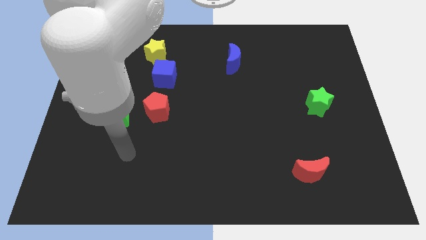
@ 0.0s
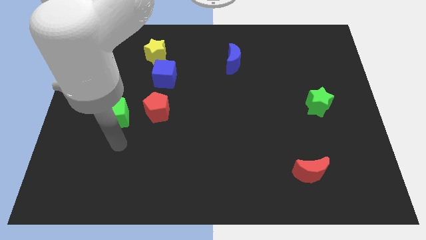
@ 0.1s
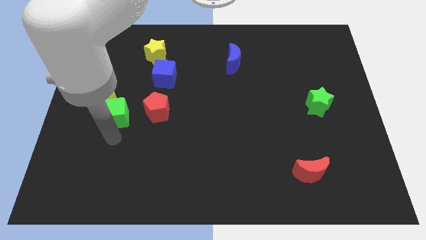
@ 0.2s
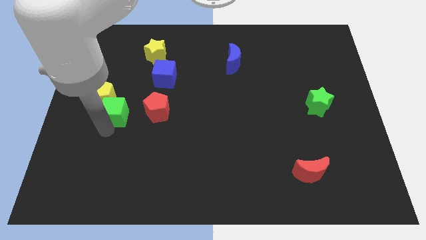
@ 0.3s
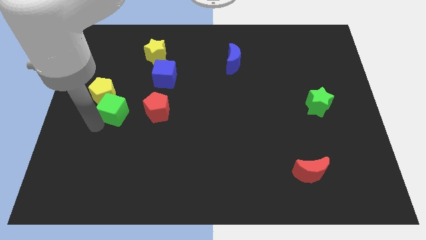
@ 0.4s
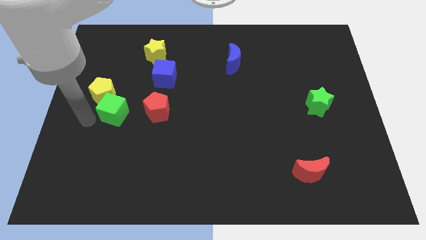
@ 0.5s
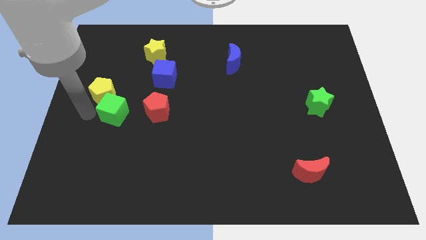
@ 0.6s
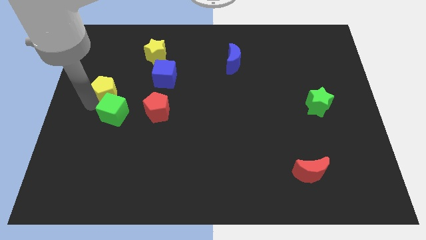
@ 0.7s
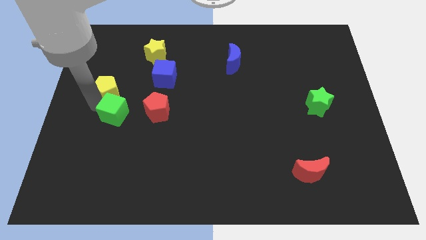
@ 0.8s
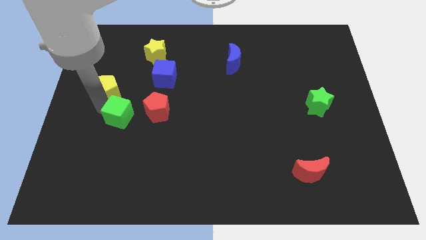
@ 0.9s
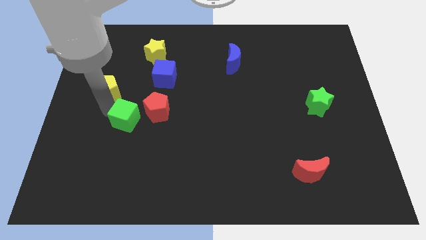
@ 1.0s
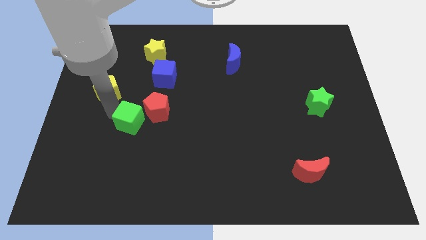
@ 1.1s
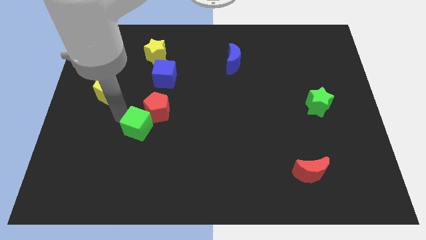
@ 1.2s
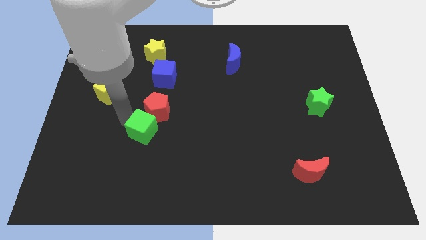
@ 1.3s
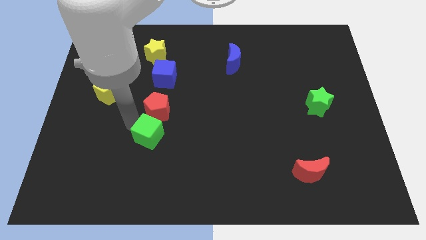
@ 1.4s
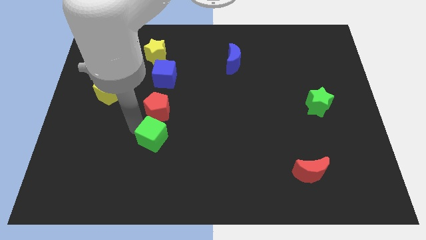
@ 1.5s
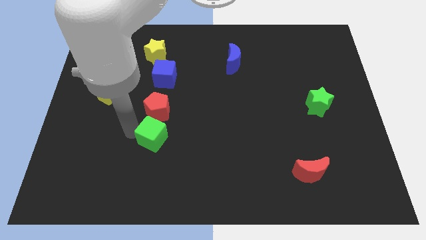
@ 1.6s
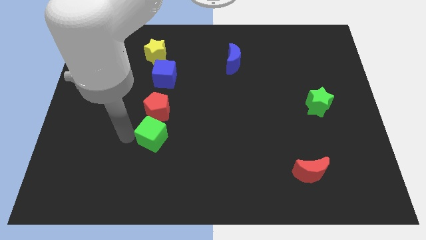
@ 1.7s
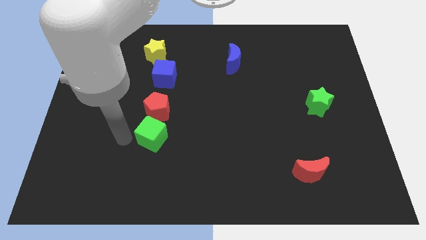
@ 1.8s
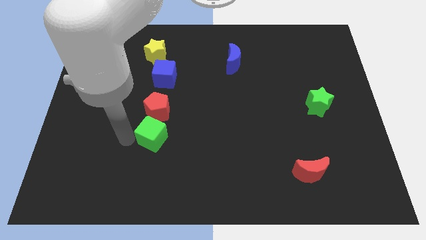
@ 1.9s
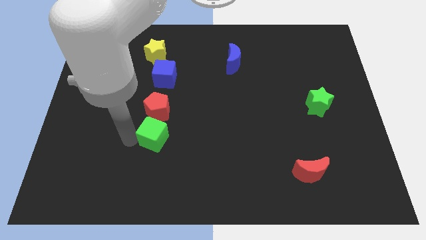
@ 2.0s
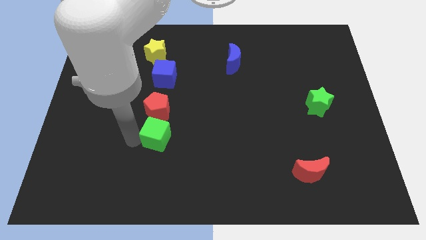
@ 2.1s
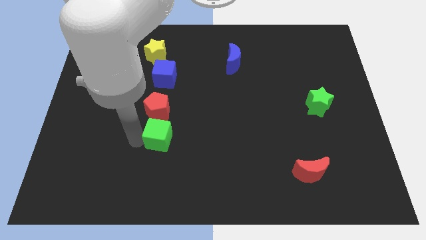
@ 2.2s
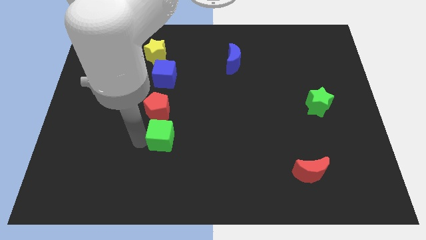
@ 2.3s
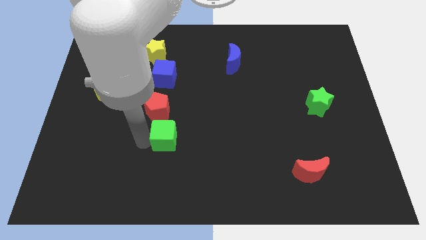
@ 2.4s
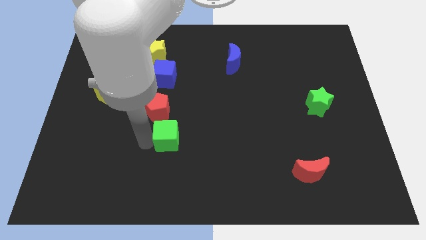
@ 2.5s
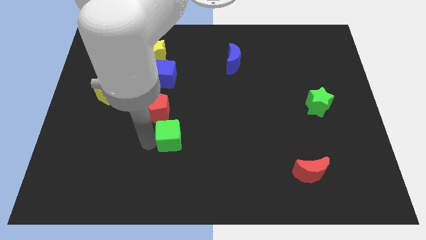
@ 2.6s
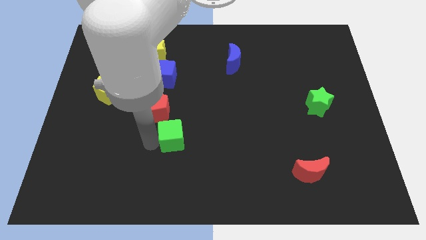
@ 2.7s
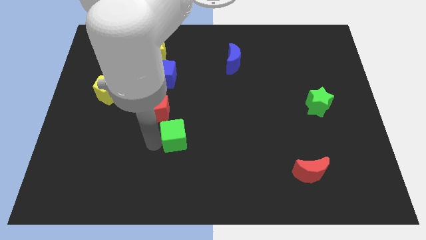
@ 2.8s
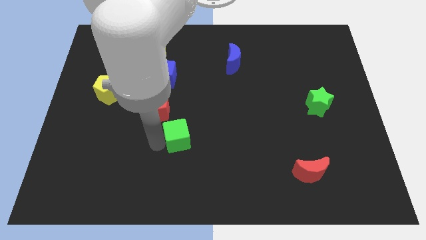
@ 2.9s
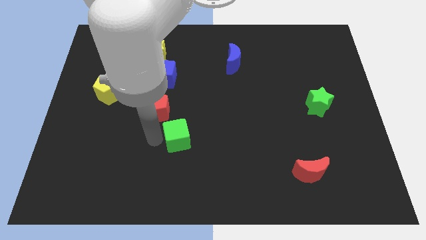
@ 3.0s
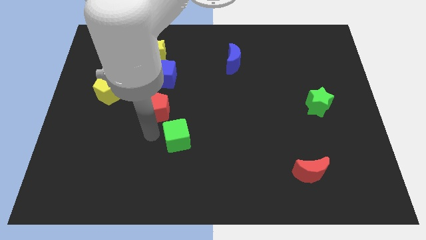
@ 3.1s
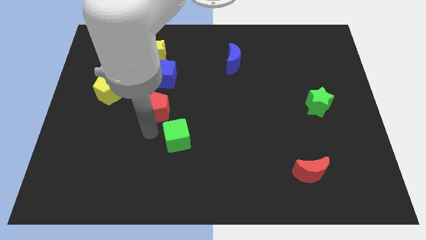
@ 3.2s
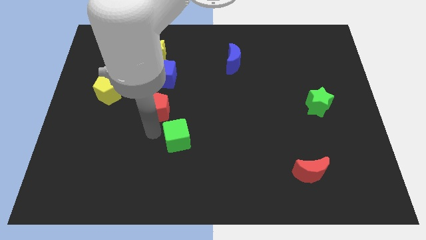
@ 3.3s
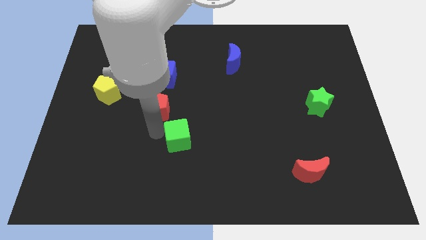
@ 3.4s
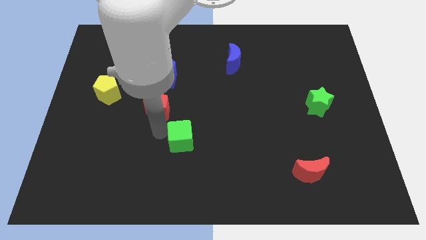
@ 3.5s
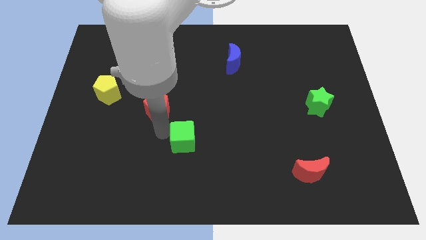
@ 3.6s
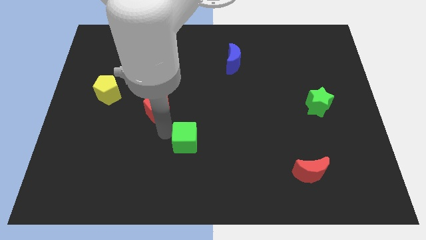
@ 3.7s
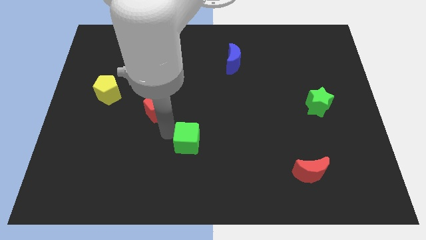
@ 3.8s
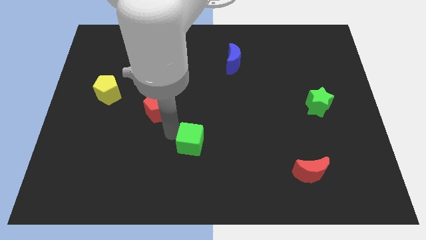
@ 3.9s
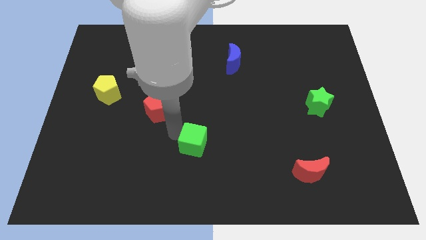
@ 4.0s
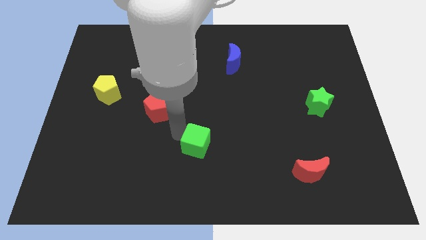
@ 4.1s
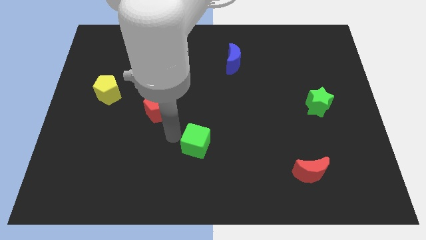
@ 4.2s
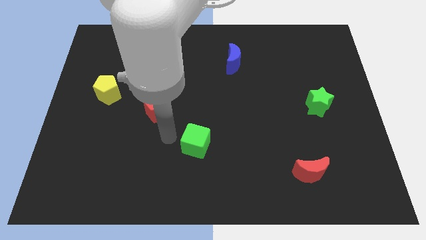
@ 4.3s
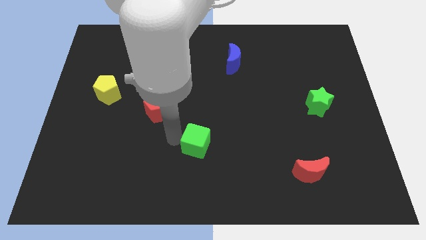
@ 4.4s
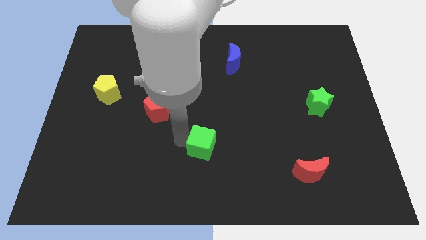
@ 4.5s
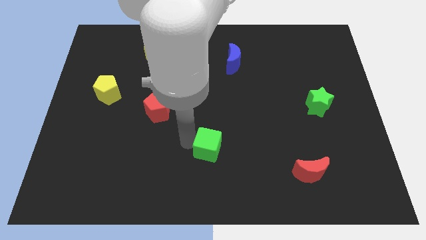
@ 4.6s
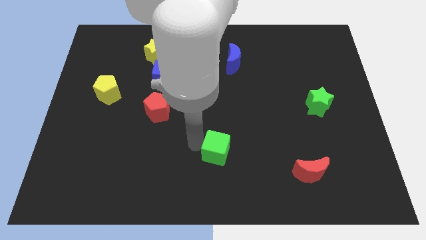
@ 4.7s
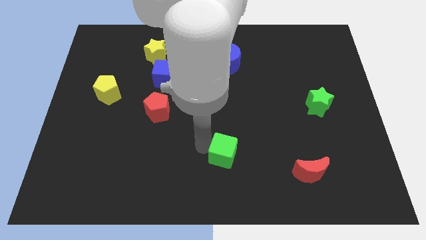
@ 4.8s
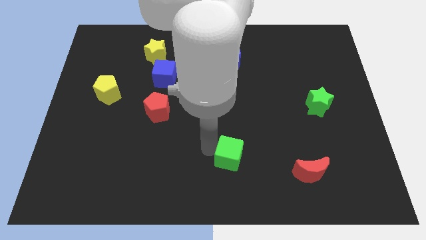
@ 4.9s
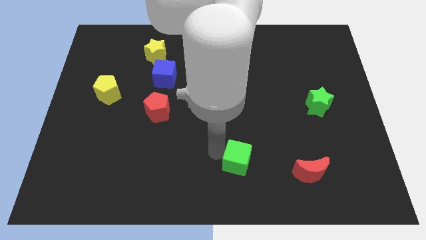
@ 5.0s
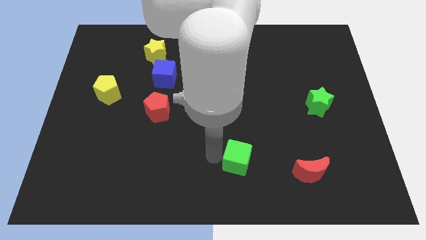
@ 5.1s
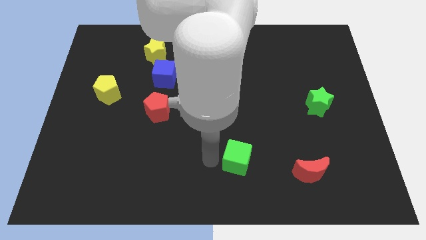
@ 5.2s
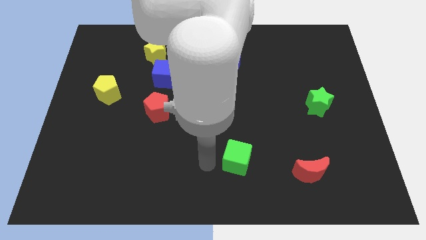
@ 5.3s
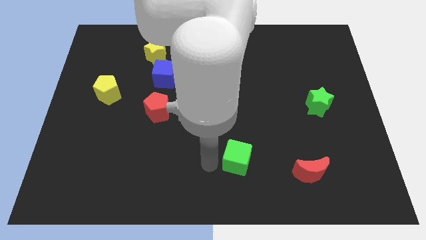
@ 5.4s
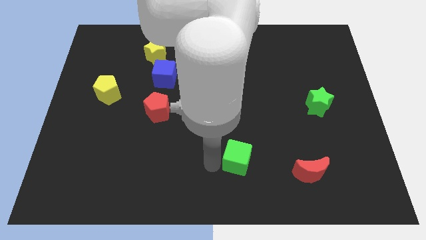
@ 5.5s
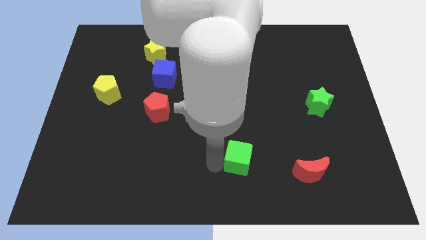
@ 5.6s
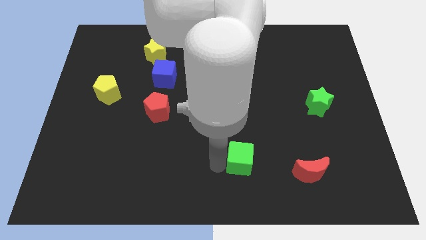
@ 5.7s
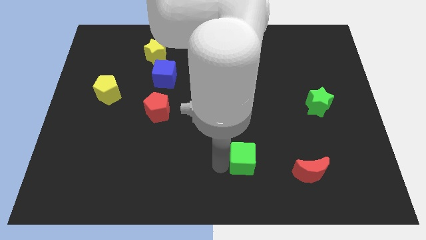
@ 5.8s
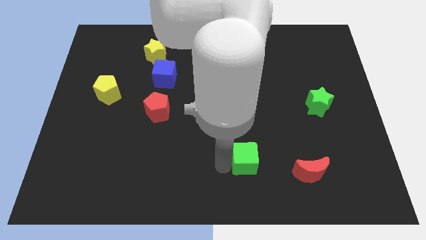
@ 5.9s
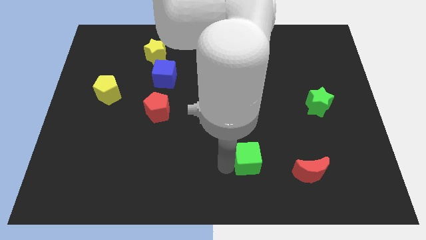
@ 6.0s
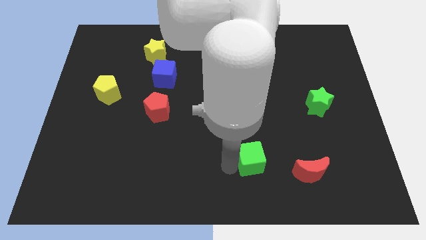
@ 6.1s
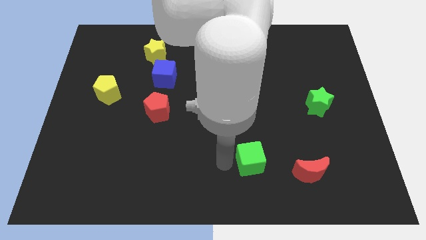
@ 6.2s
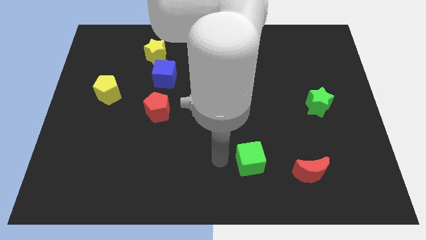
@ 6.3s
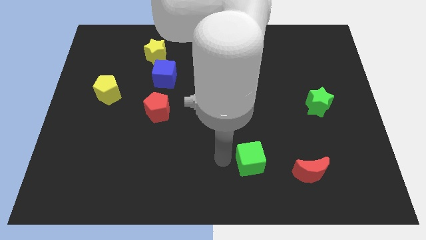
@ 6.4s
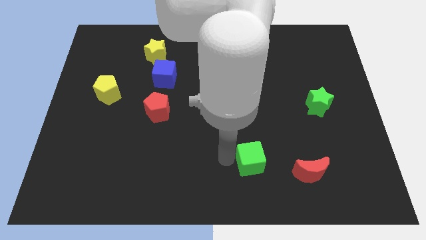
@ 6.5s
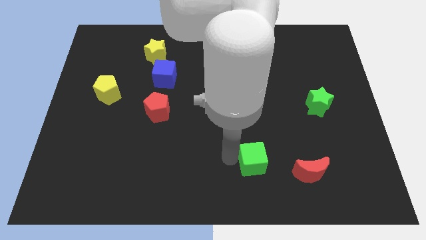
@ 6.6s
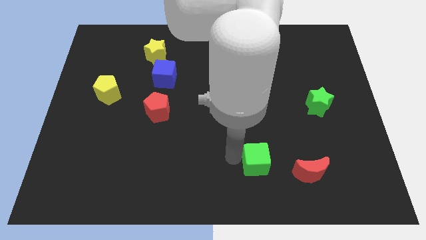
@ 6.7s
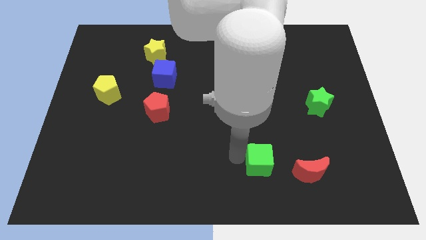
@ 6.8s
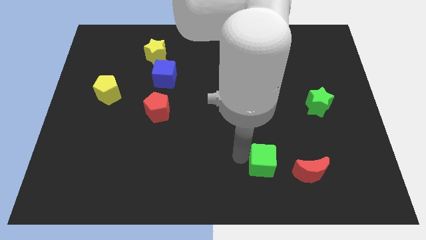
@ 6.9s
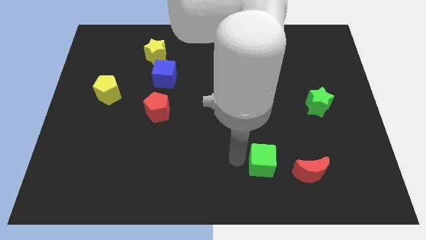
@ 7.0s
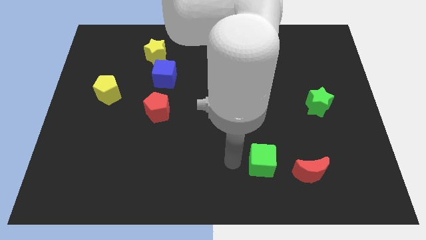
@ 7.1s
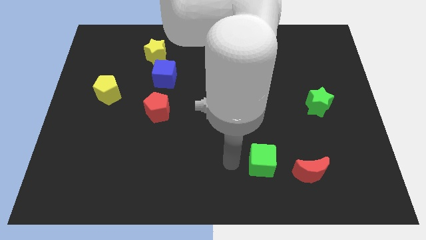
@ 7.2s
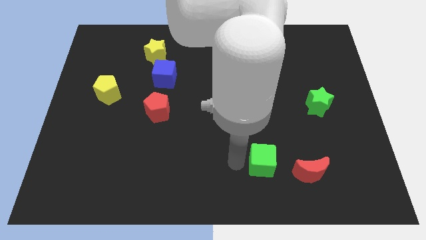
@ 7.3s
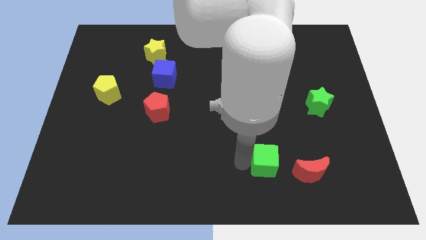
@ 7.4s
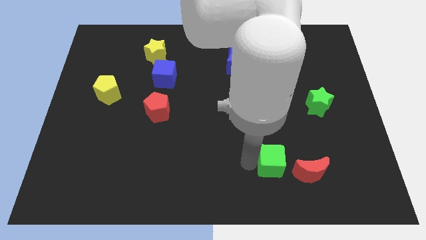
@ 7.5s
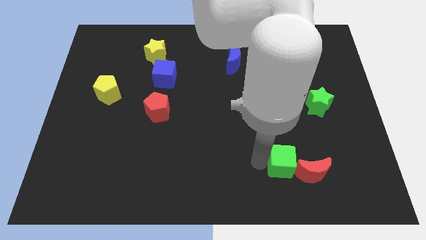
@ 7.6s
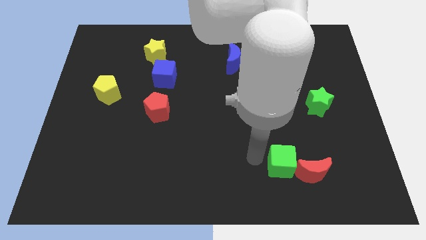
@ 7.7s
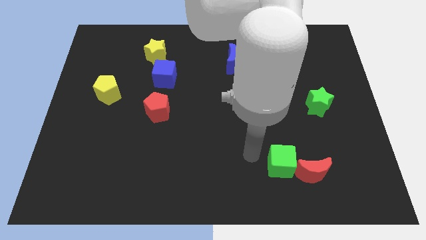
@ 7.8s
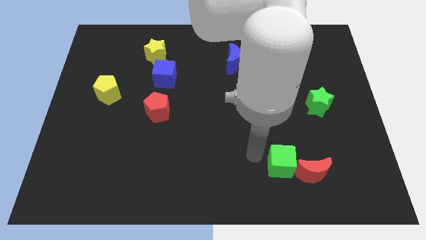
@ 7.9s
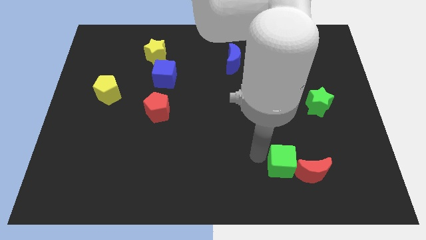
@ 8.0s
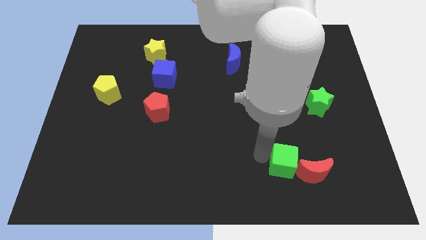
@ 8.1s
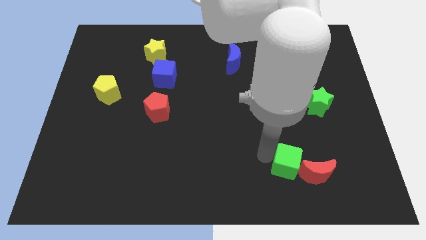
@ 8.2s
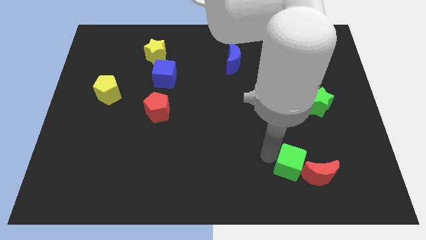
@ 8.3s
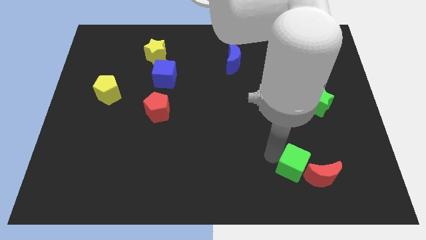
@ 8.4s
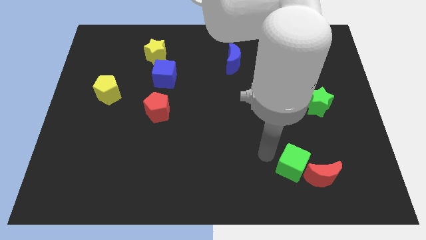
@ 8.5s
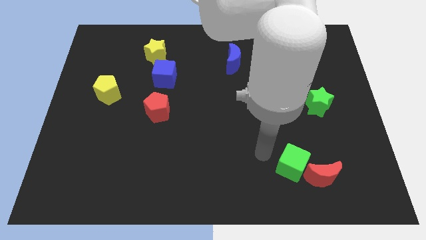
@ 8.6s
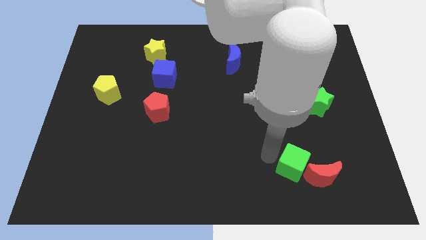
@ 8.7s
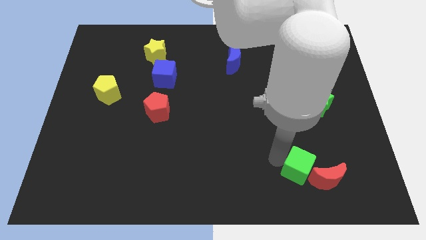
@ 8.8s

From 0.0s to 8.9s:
move the green cube close to the red moon
